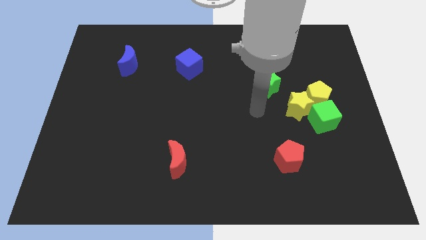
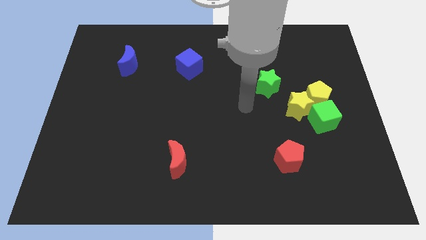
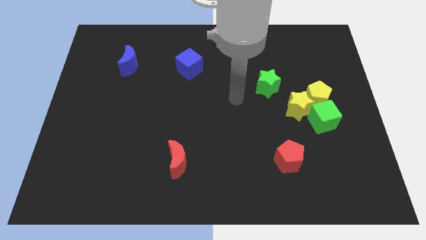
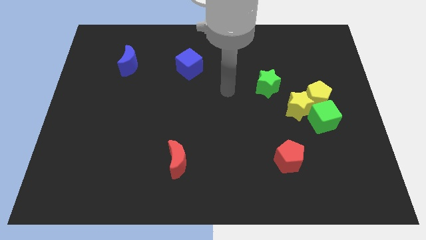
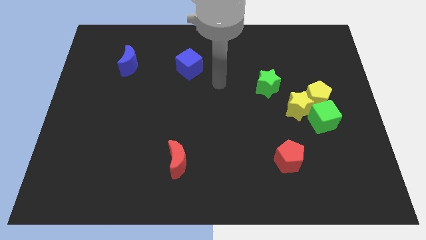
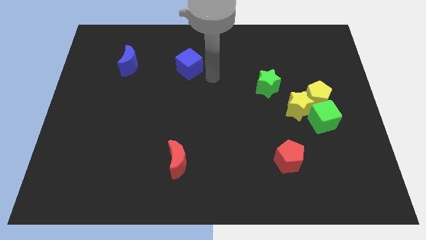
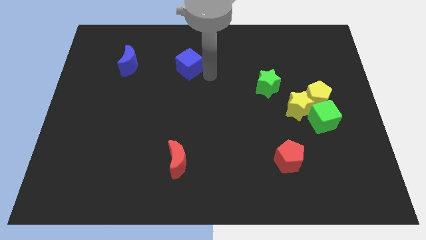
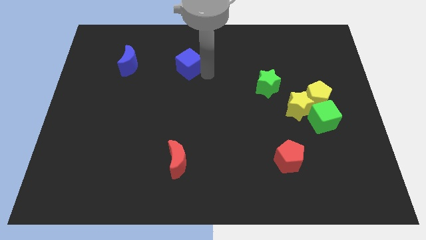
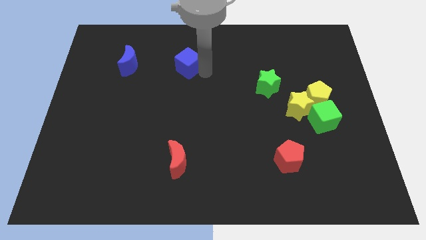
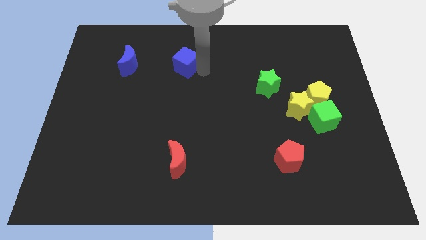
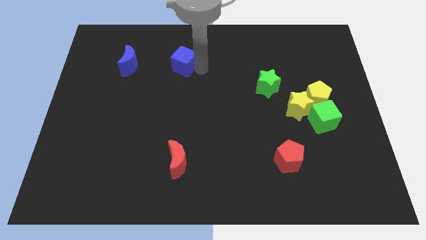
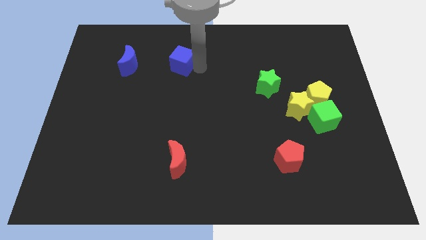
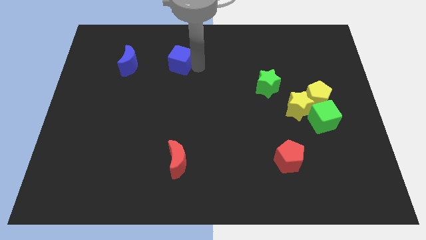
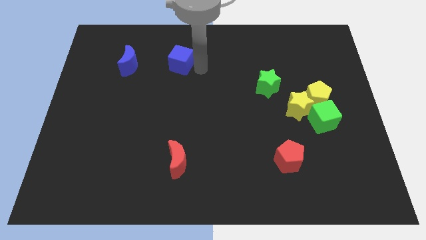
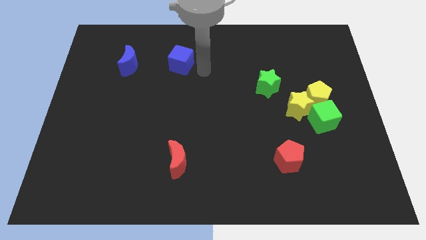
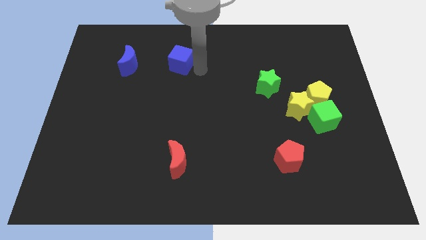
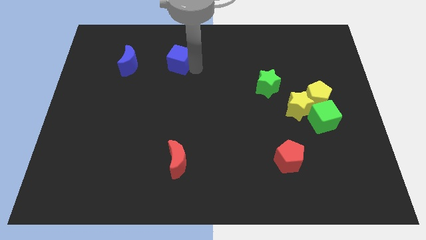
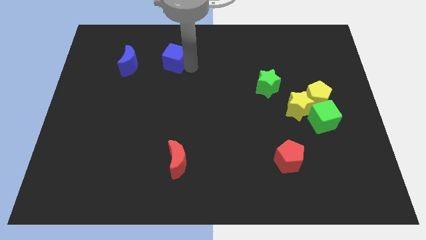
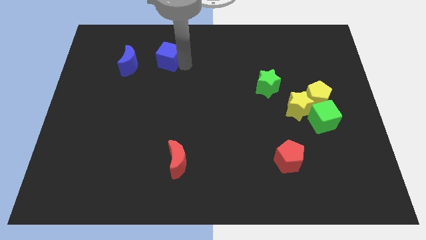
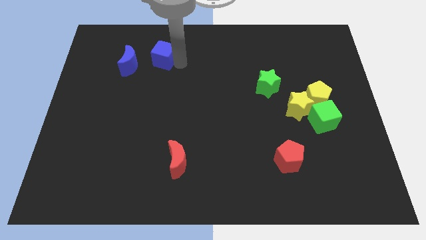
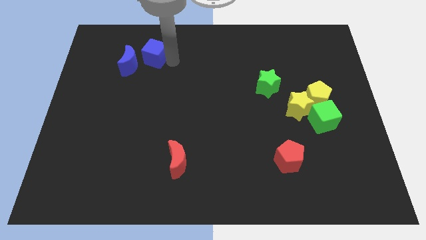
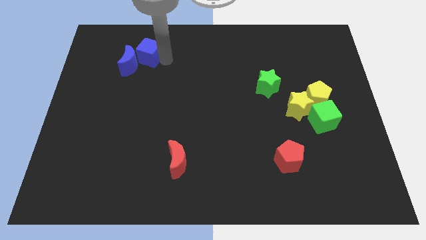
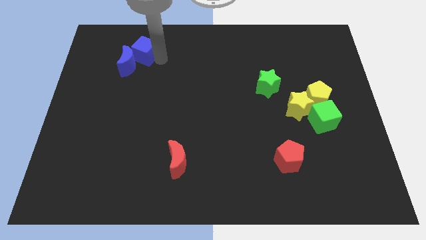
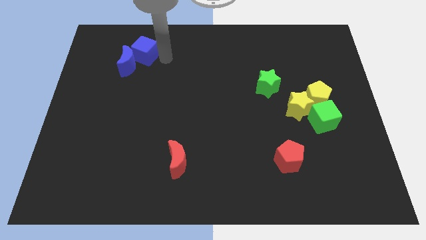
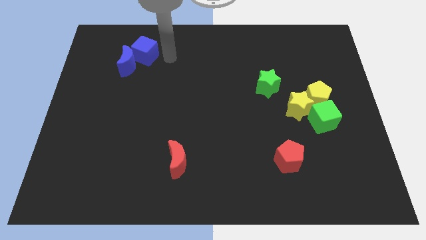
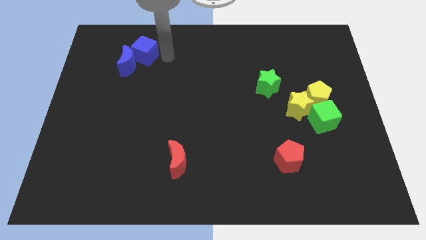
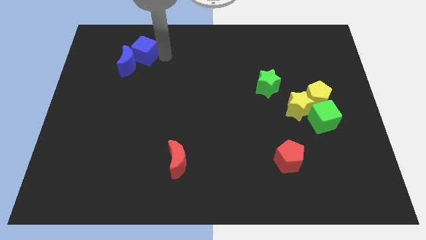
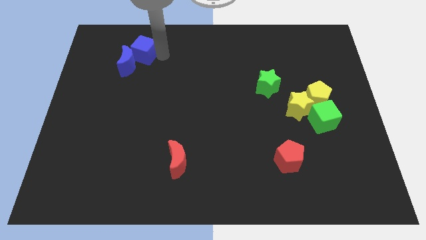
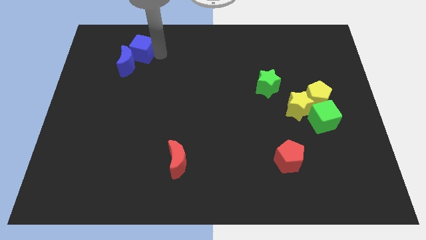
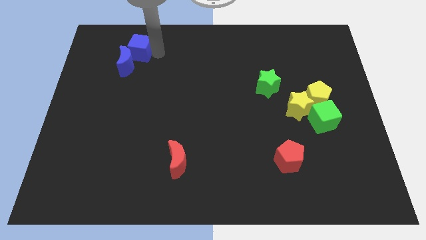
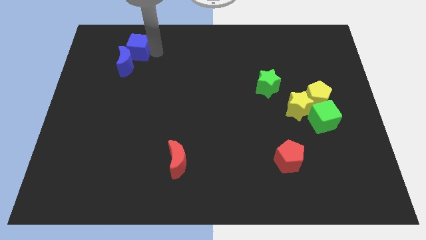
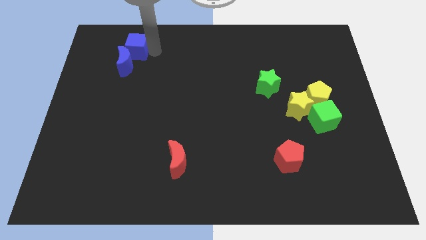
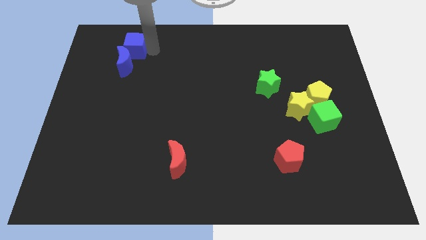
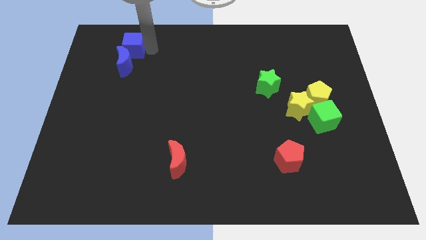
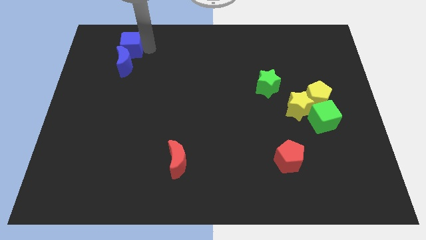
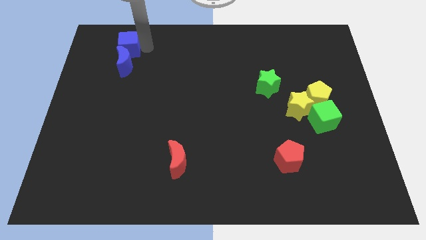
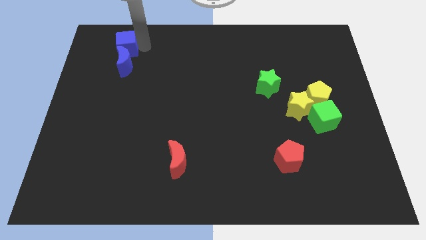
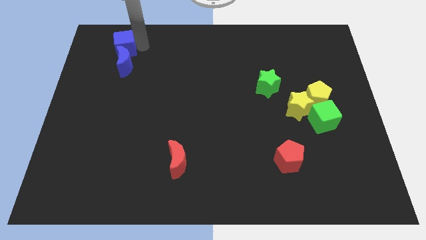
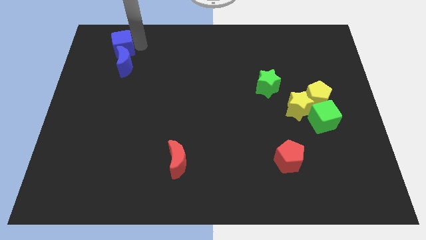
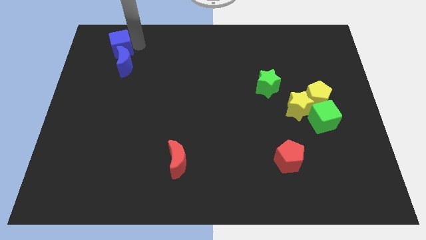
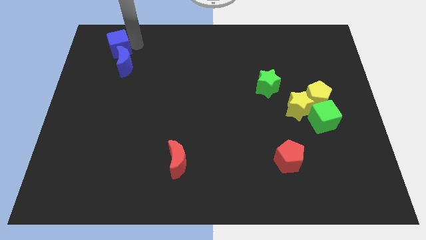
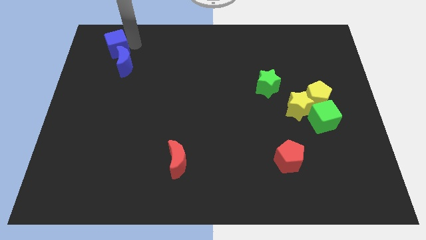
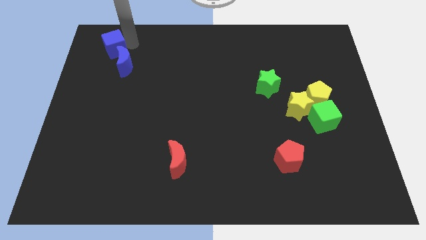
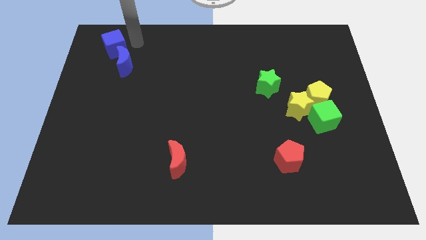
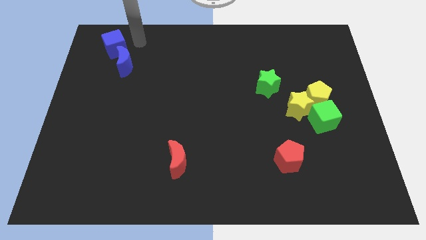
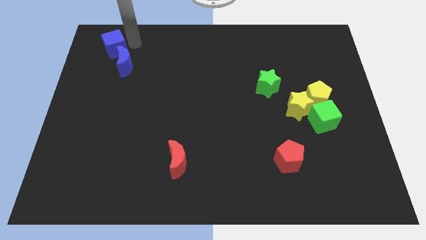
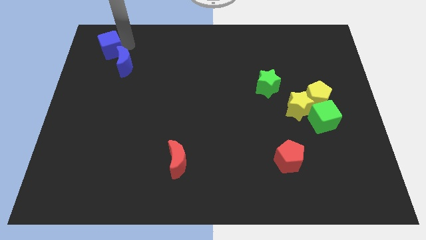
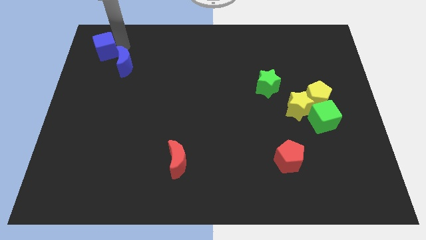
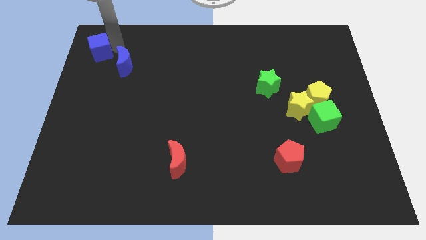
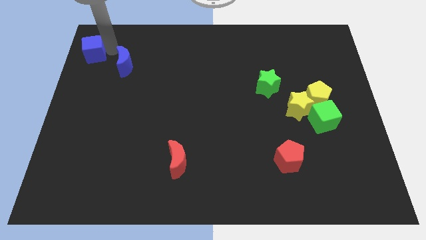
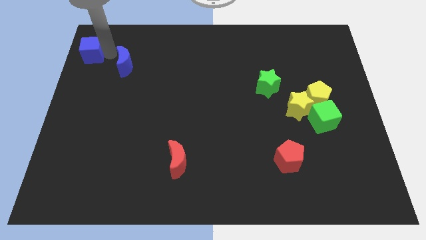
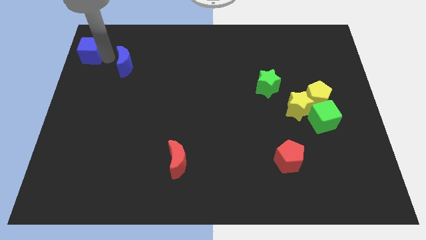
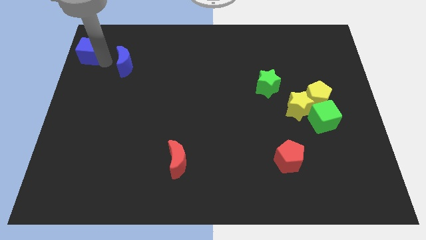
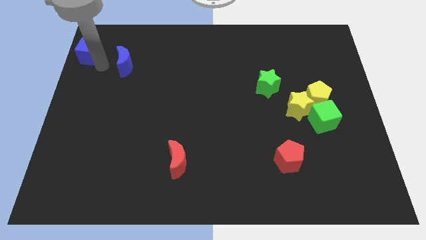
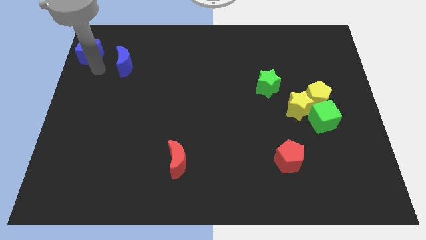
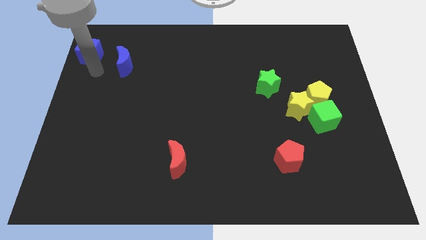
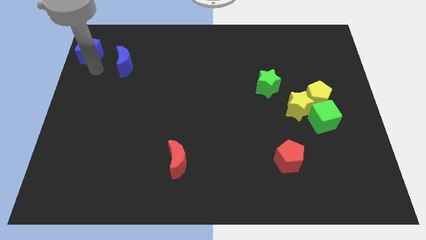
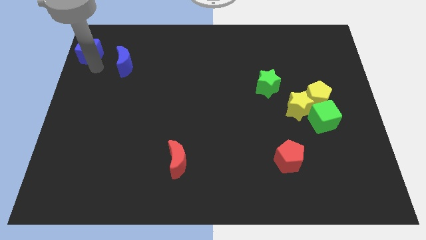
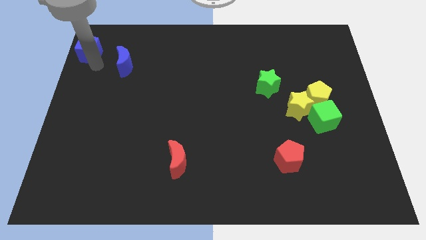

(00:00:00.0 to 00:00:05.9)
move the blue cube to the top left corner
